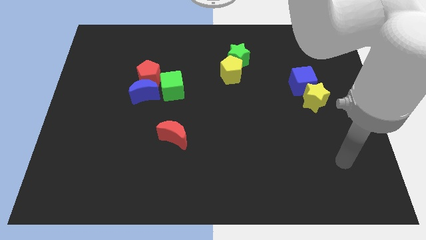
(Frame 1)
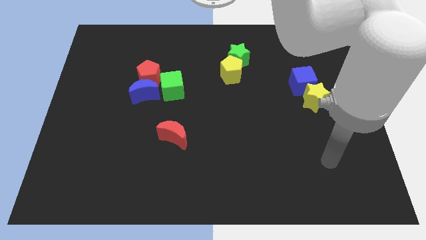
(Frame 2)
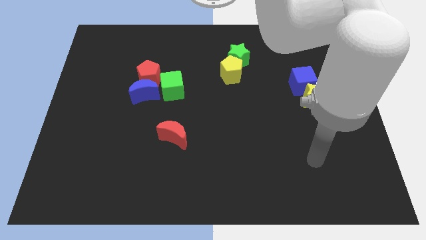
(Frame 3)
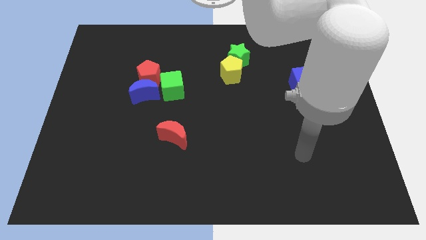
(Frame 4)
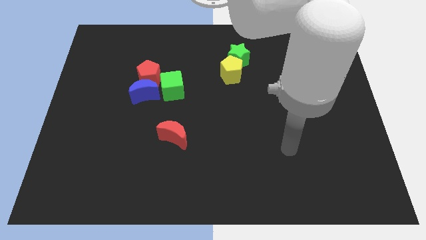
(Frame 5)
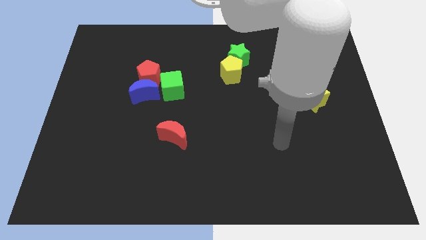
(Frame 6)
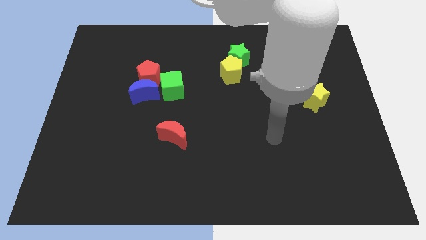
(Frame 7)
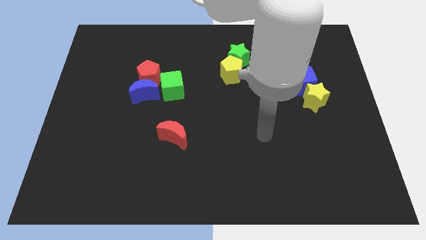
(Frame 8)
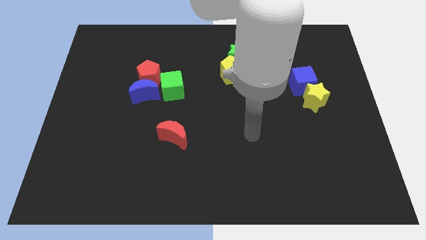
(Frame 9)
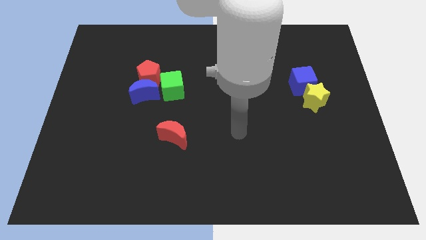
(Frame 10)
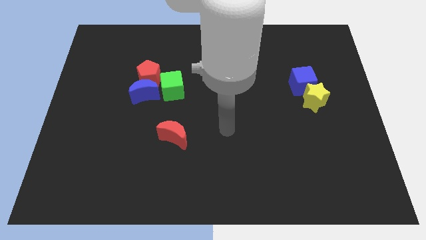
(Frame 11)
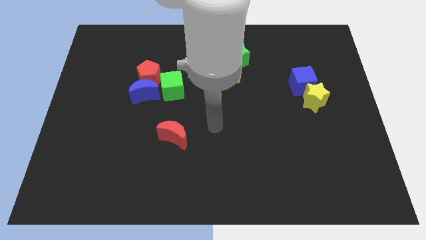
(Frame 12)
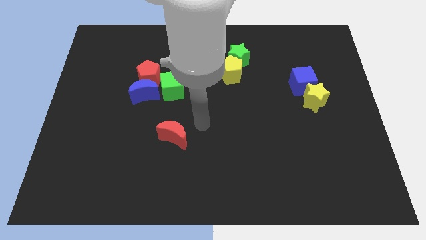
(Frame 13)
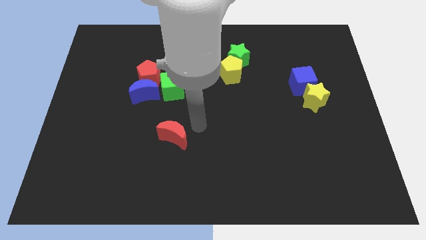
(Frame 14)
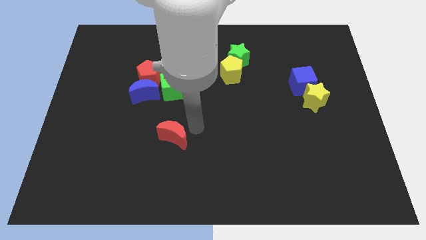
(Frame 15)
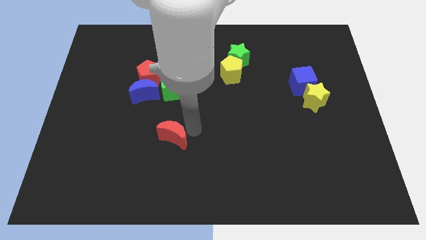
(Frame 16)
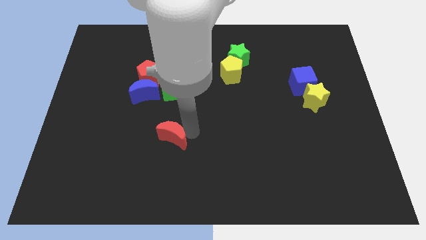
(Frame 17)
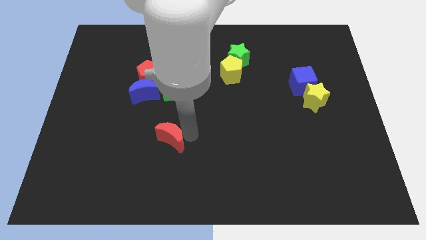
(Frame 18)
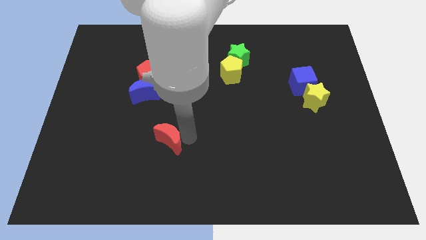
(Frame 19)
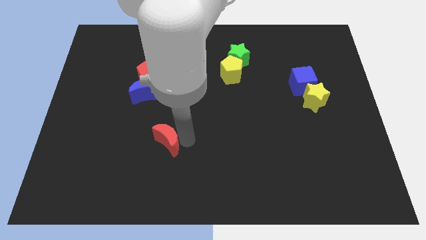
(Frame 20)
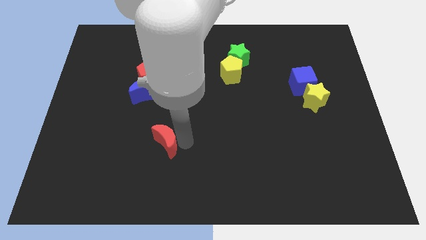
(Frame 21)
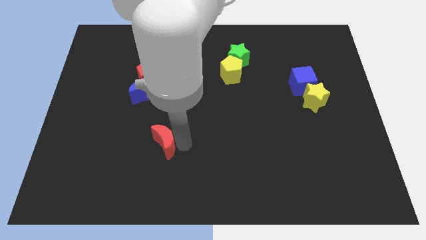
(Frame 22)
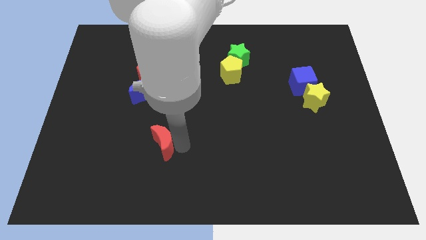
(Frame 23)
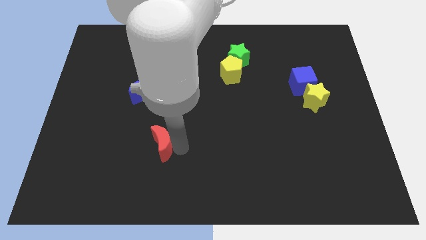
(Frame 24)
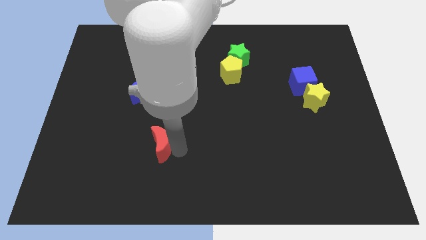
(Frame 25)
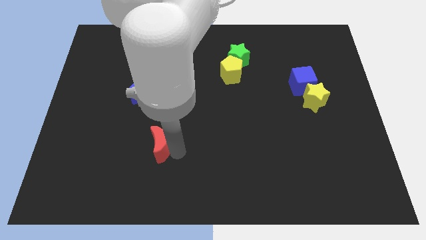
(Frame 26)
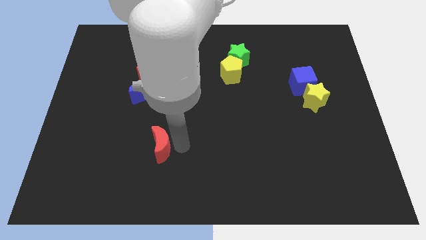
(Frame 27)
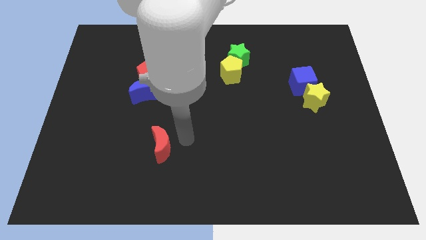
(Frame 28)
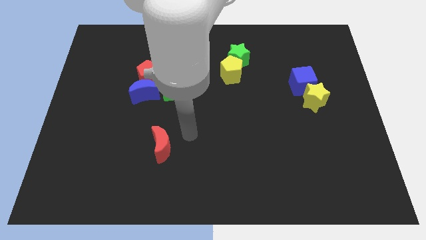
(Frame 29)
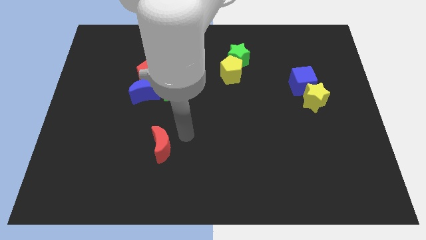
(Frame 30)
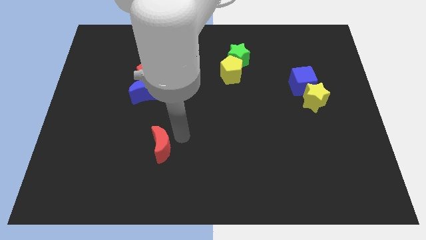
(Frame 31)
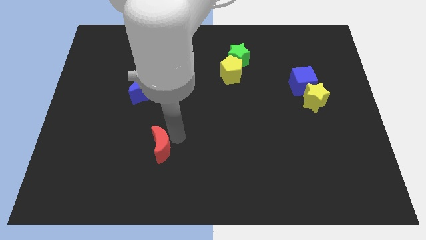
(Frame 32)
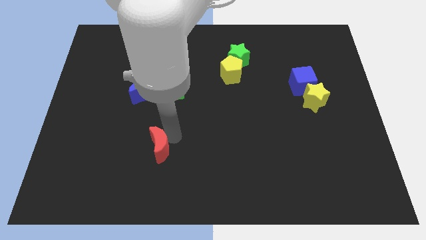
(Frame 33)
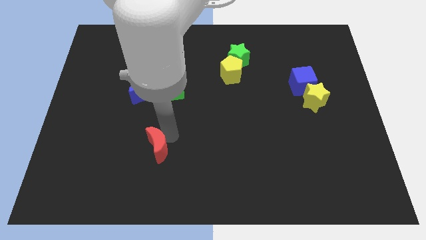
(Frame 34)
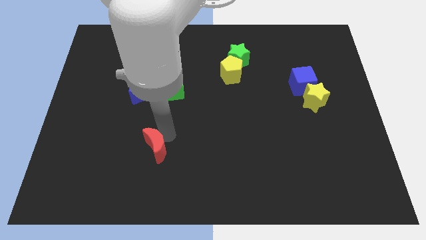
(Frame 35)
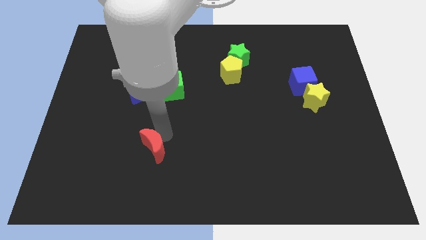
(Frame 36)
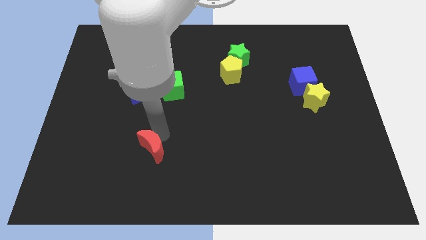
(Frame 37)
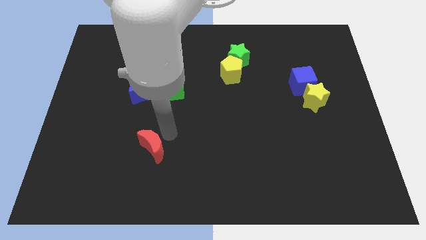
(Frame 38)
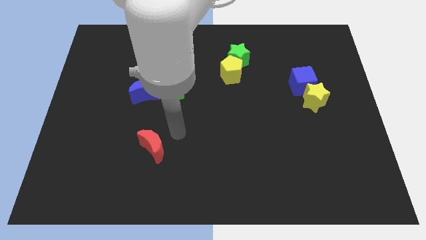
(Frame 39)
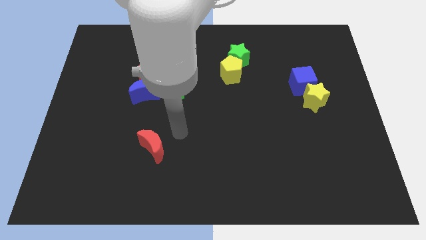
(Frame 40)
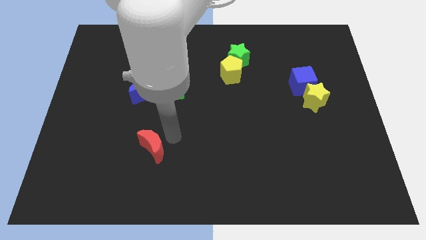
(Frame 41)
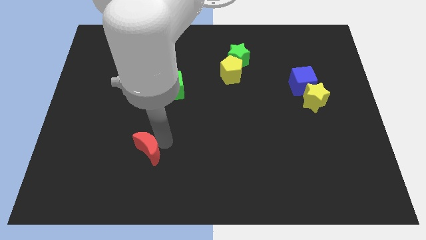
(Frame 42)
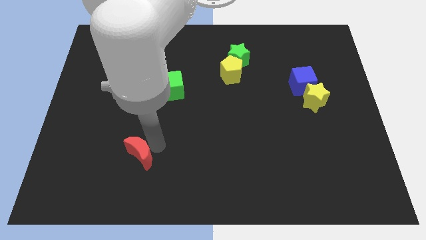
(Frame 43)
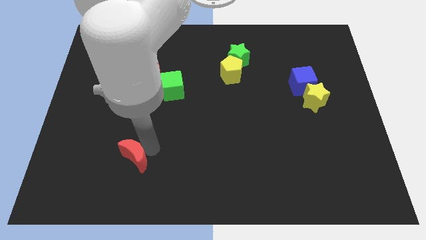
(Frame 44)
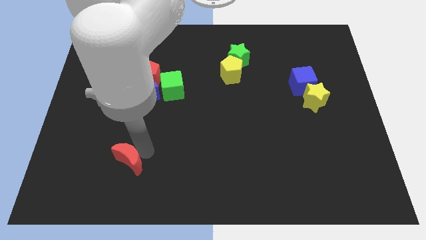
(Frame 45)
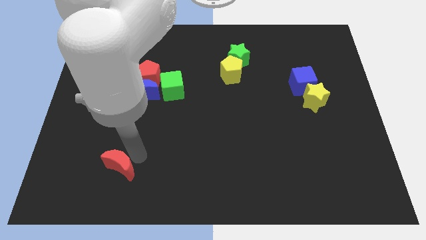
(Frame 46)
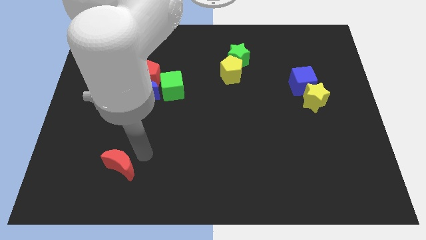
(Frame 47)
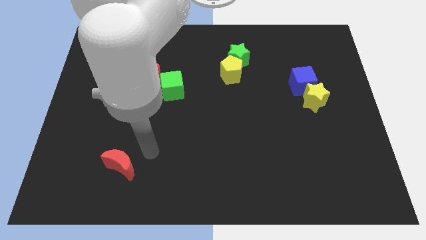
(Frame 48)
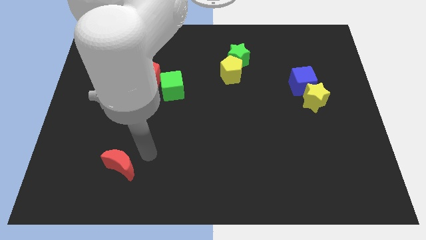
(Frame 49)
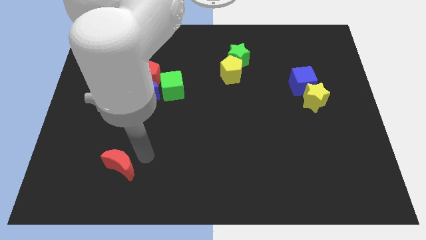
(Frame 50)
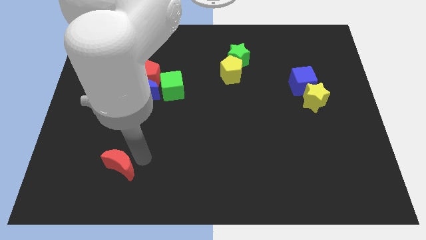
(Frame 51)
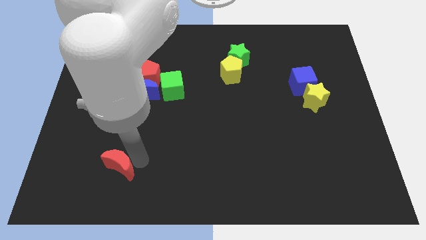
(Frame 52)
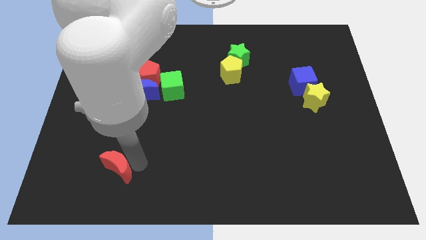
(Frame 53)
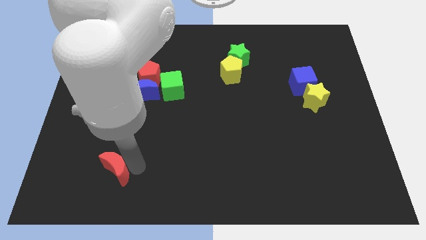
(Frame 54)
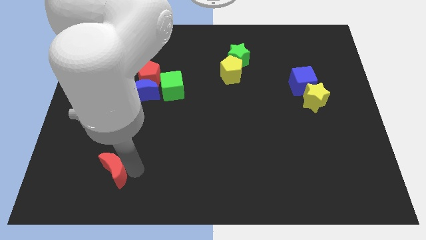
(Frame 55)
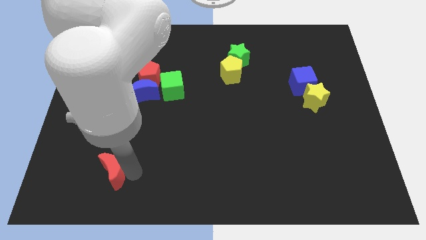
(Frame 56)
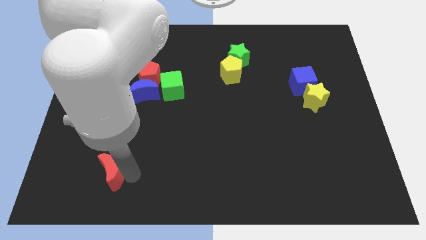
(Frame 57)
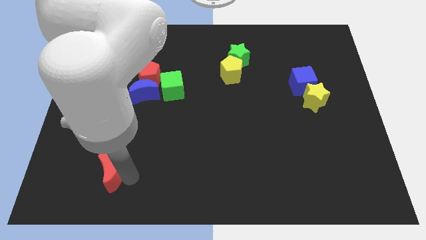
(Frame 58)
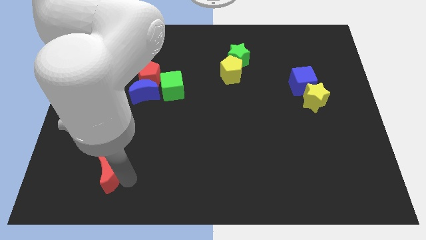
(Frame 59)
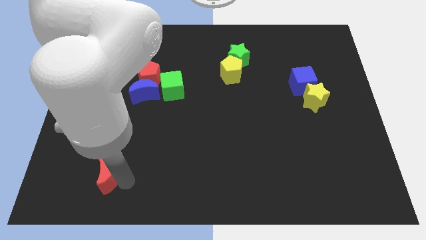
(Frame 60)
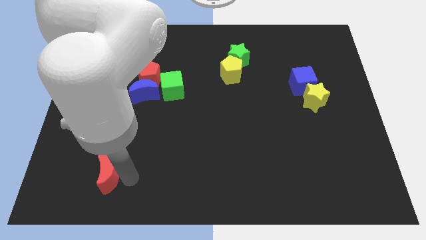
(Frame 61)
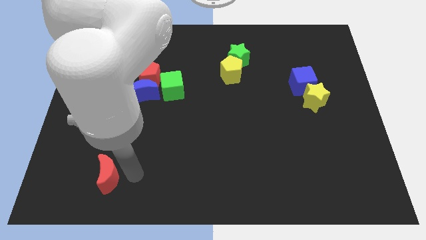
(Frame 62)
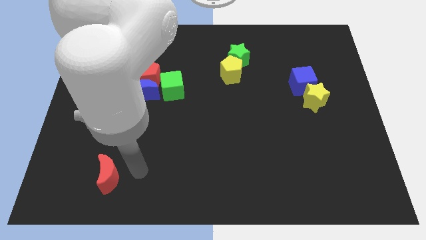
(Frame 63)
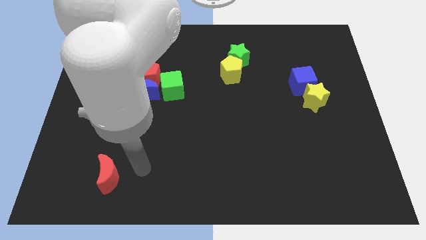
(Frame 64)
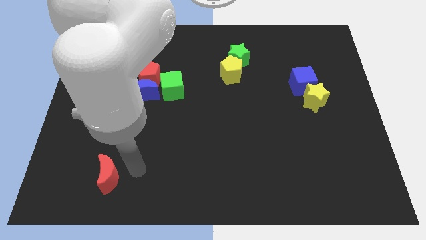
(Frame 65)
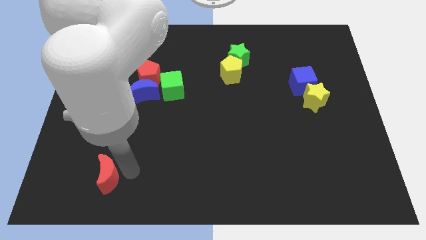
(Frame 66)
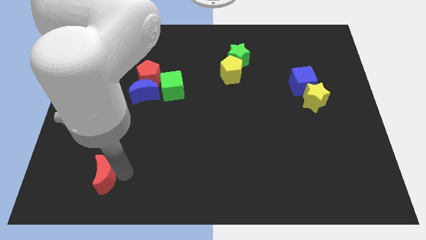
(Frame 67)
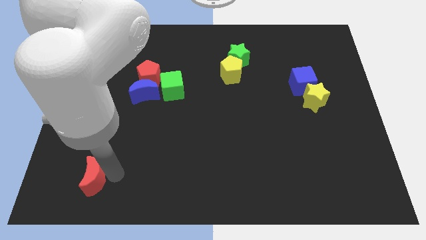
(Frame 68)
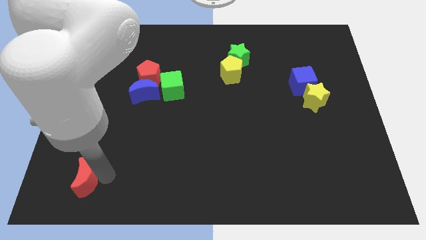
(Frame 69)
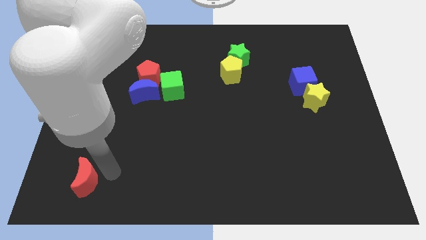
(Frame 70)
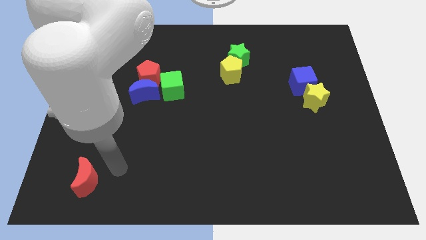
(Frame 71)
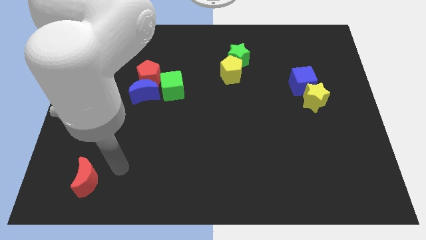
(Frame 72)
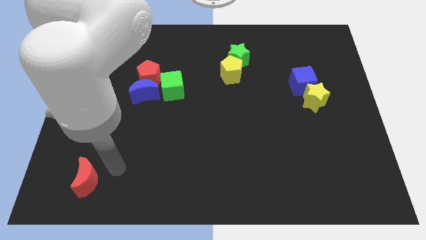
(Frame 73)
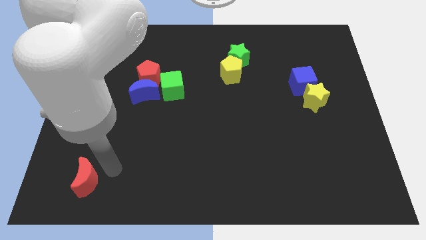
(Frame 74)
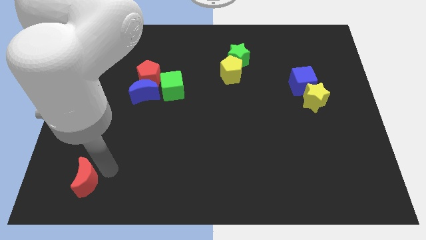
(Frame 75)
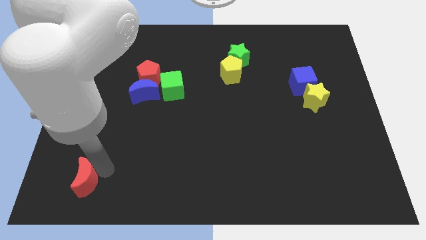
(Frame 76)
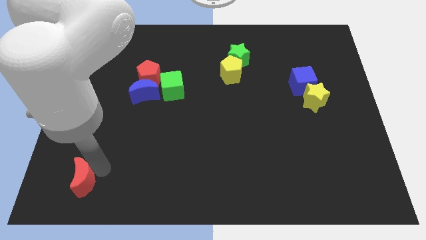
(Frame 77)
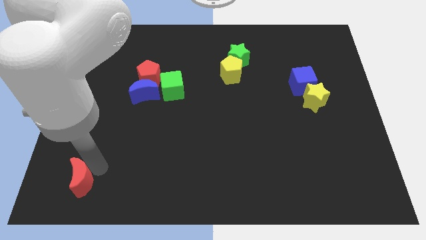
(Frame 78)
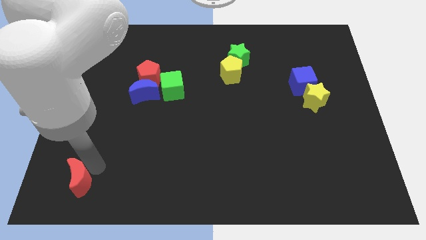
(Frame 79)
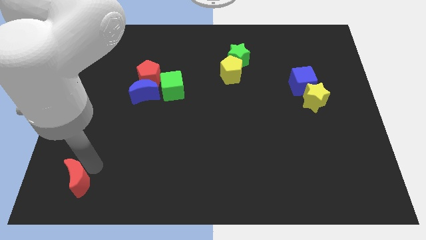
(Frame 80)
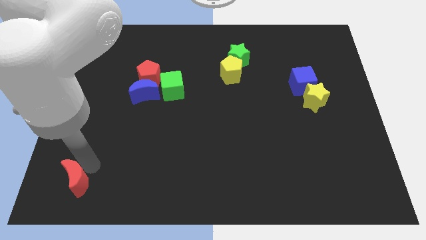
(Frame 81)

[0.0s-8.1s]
move the red moon to the bottom left of the board
